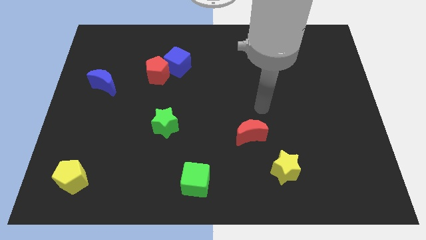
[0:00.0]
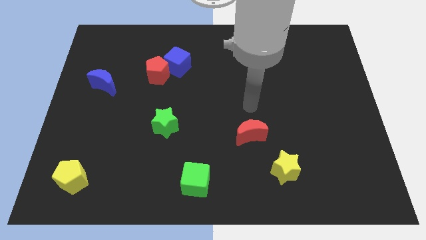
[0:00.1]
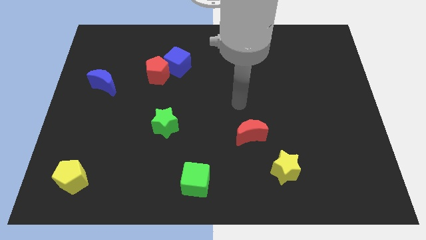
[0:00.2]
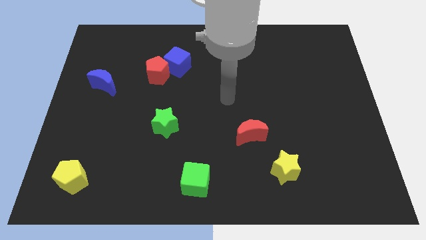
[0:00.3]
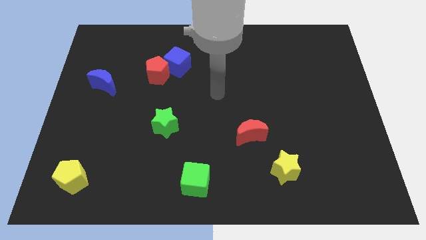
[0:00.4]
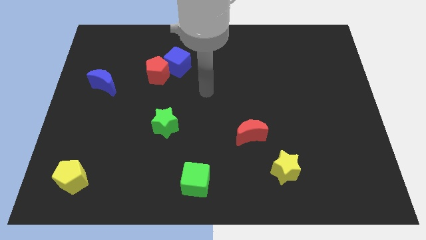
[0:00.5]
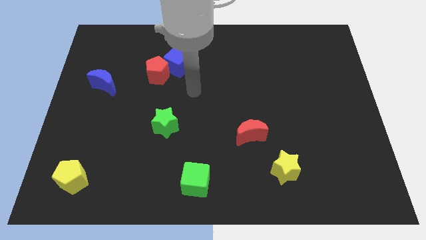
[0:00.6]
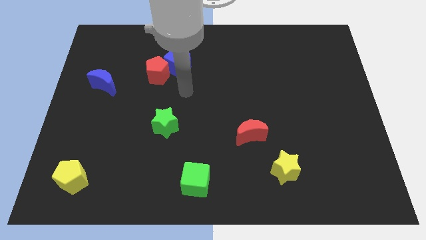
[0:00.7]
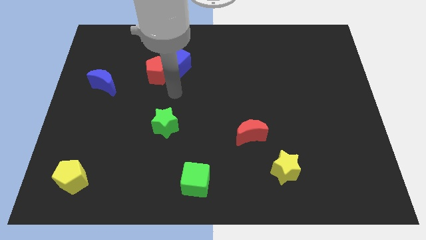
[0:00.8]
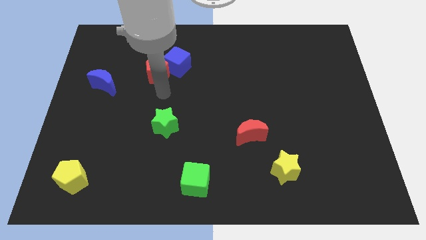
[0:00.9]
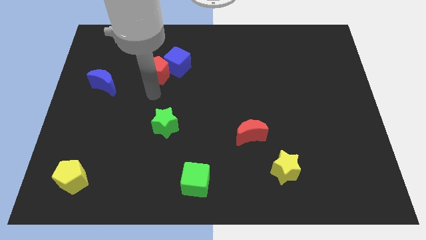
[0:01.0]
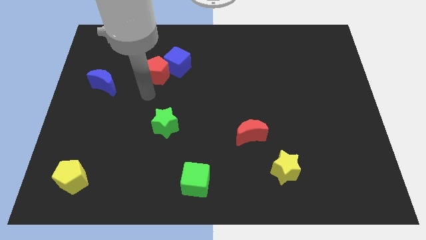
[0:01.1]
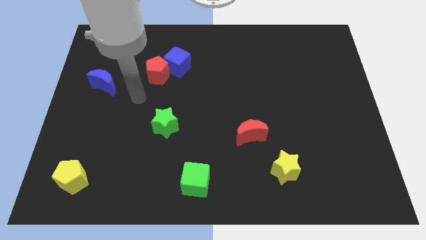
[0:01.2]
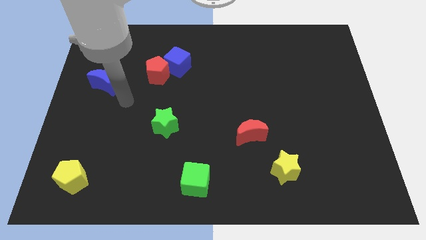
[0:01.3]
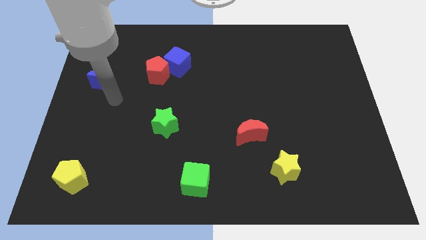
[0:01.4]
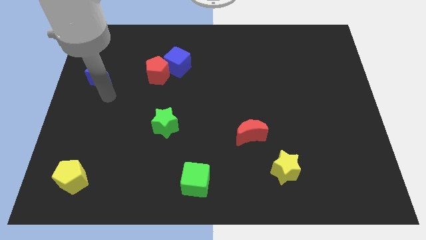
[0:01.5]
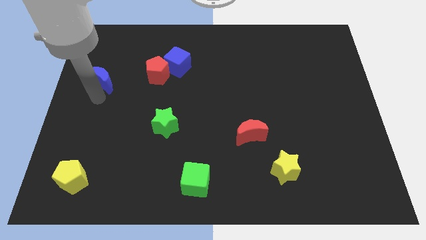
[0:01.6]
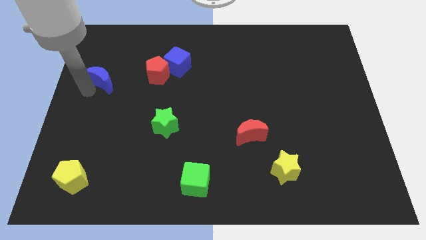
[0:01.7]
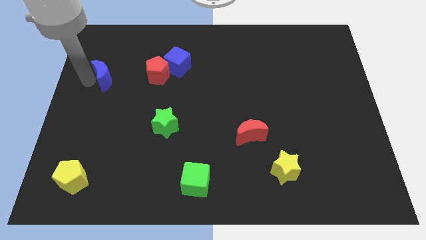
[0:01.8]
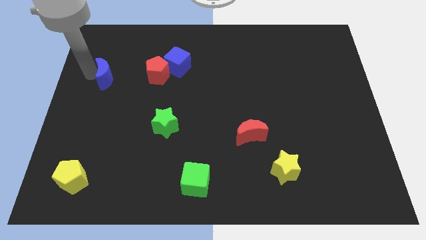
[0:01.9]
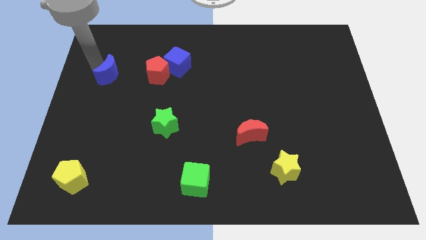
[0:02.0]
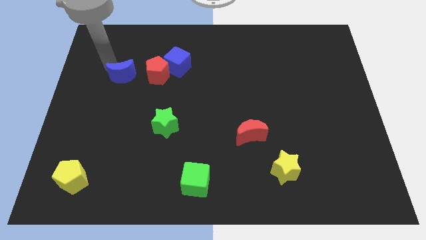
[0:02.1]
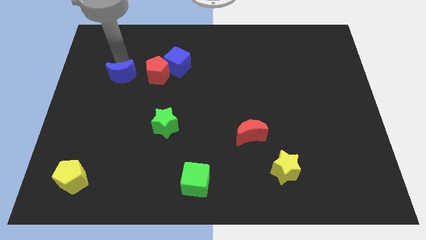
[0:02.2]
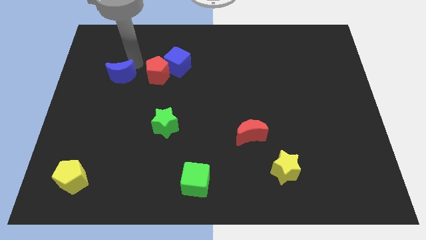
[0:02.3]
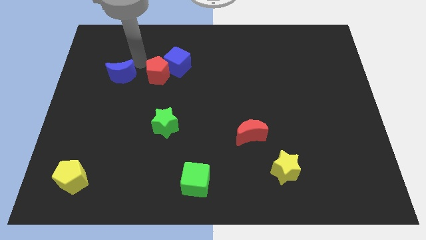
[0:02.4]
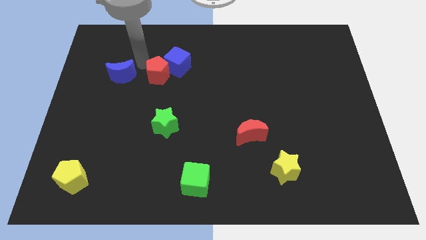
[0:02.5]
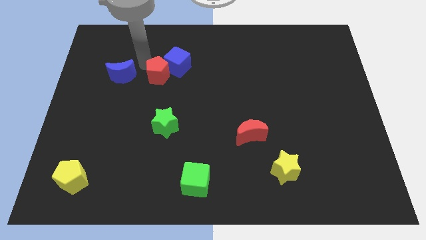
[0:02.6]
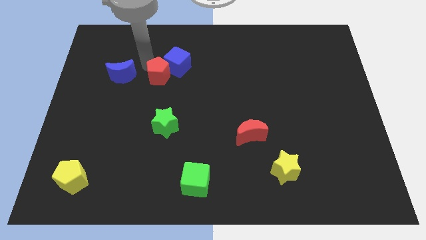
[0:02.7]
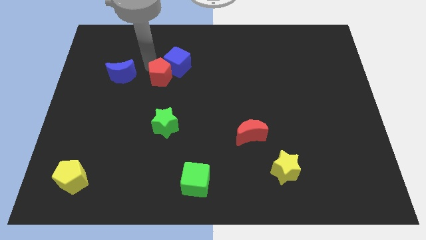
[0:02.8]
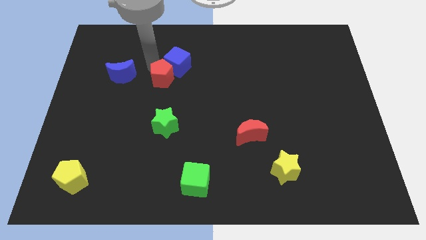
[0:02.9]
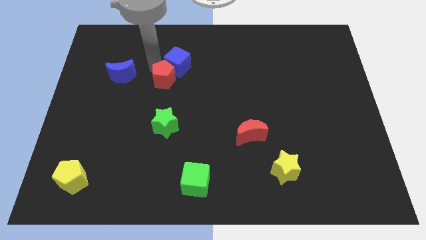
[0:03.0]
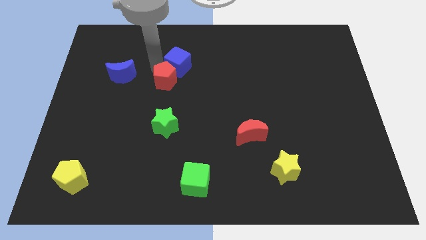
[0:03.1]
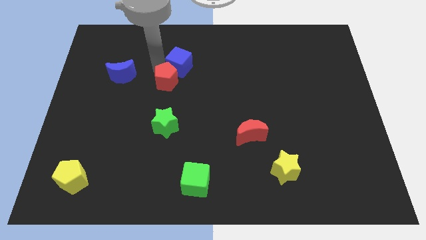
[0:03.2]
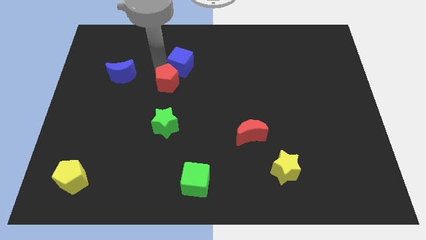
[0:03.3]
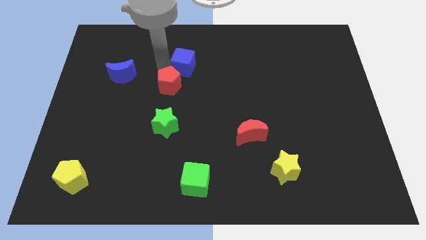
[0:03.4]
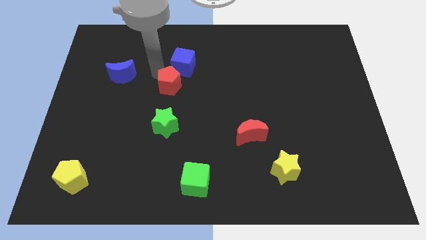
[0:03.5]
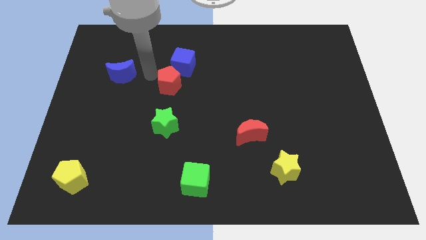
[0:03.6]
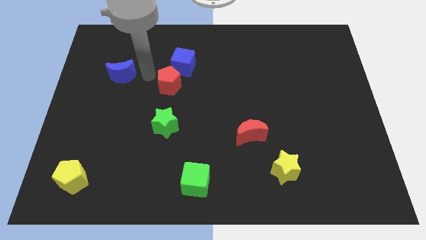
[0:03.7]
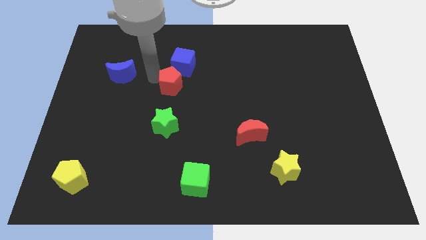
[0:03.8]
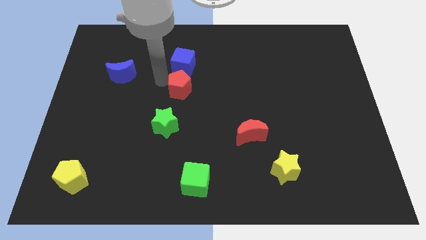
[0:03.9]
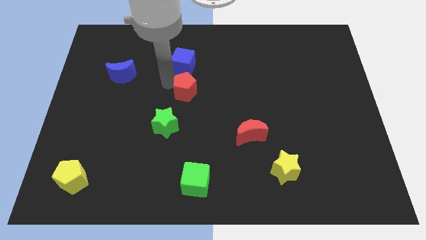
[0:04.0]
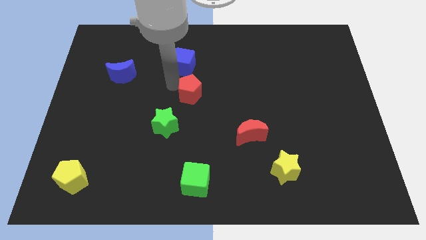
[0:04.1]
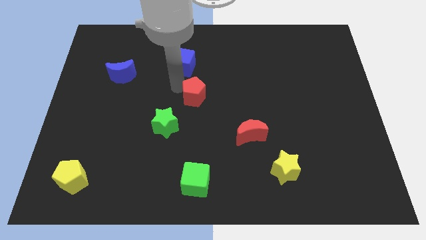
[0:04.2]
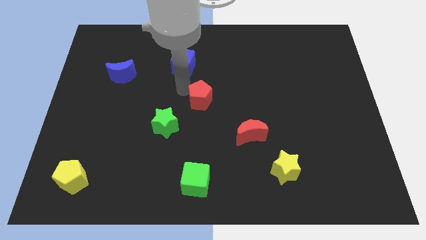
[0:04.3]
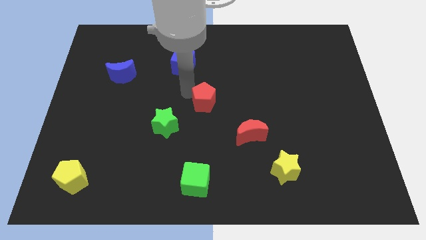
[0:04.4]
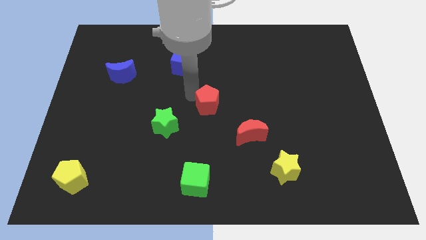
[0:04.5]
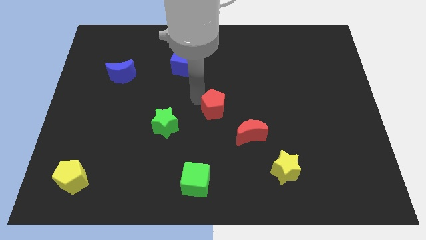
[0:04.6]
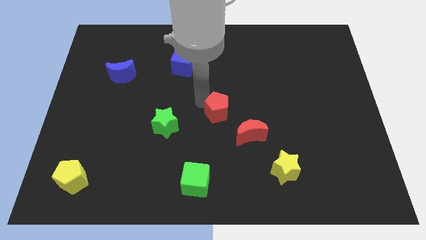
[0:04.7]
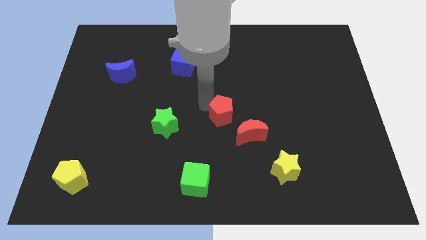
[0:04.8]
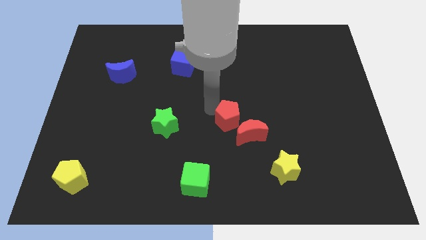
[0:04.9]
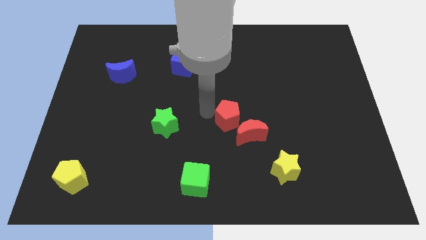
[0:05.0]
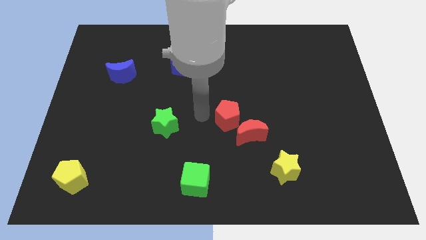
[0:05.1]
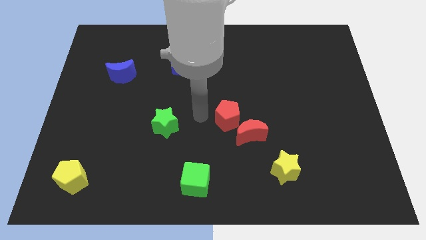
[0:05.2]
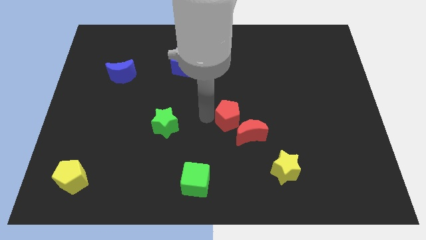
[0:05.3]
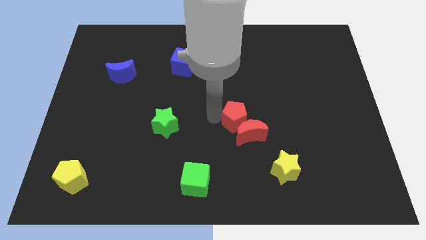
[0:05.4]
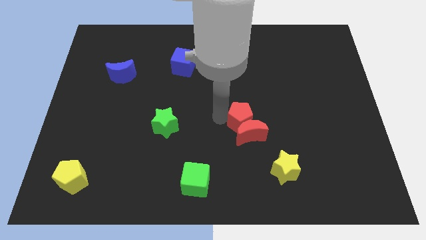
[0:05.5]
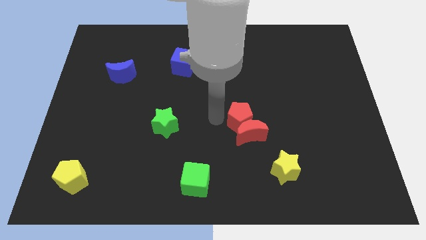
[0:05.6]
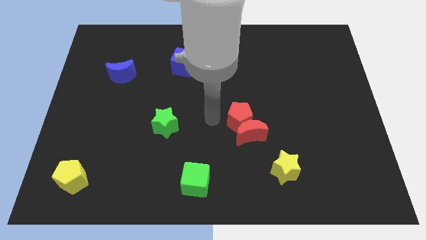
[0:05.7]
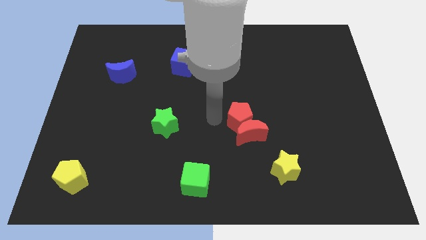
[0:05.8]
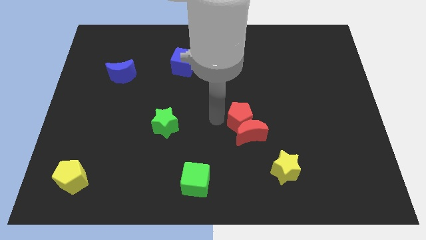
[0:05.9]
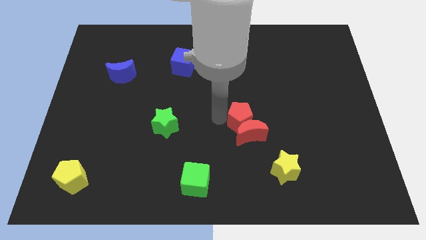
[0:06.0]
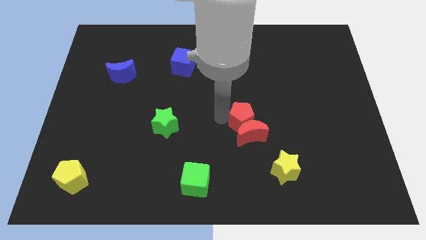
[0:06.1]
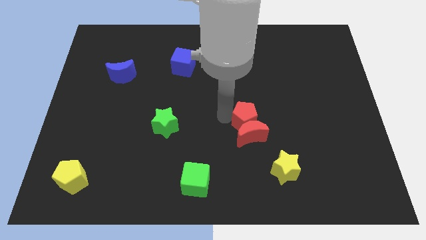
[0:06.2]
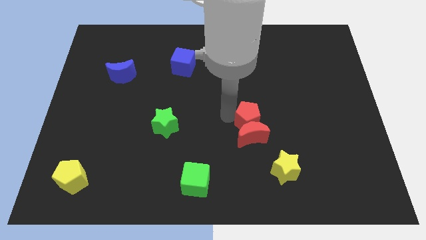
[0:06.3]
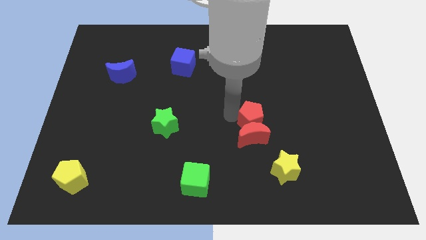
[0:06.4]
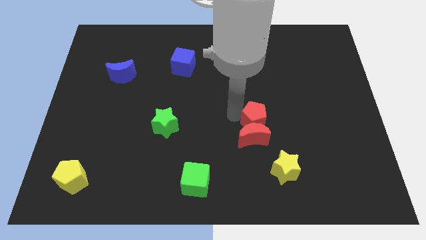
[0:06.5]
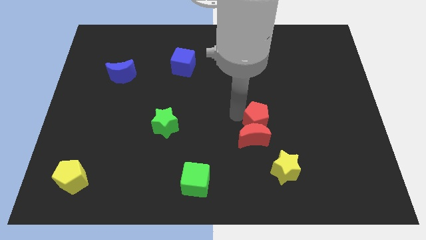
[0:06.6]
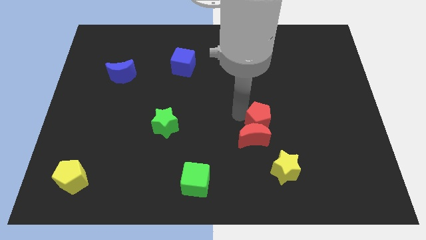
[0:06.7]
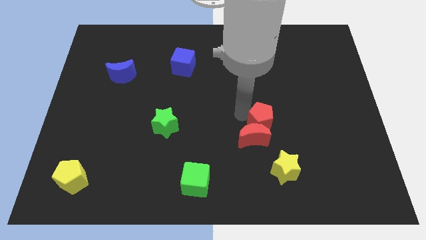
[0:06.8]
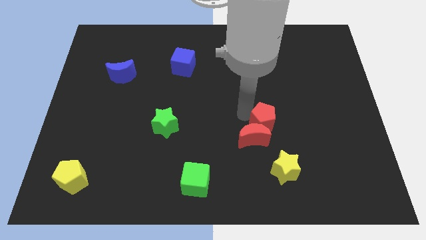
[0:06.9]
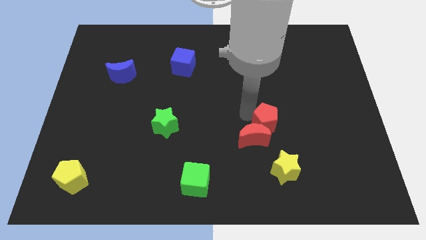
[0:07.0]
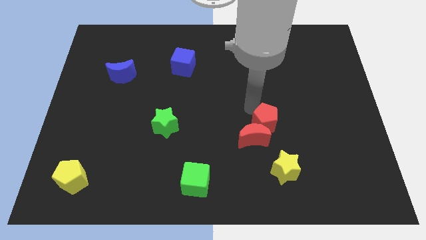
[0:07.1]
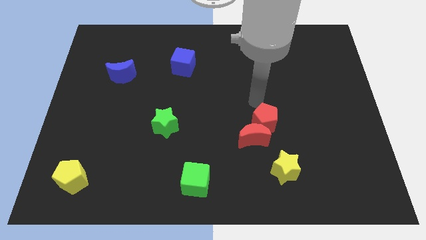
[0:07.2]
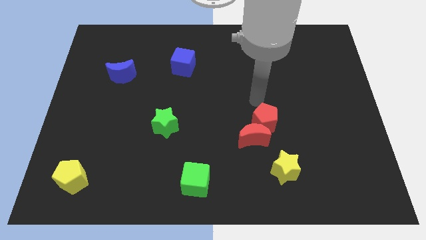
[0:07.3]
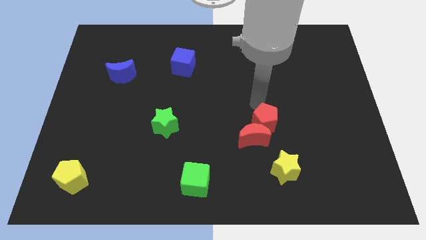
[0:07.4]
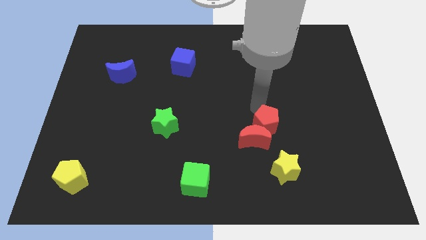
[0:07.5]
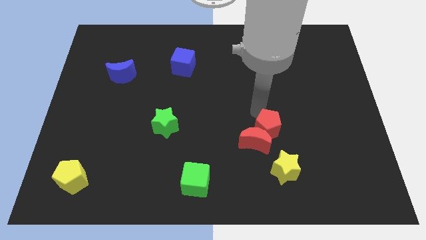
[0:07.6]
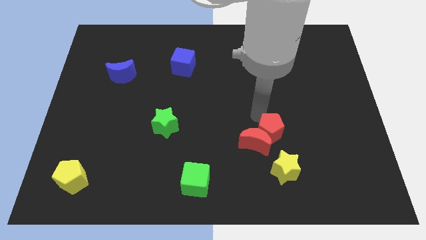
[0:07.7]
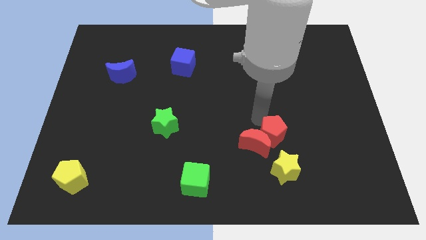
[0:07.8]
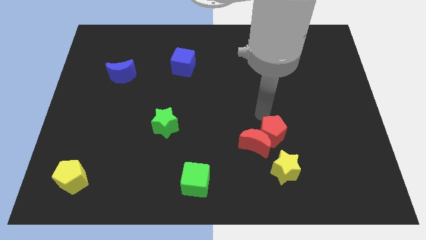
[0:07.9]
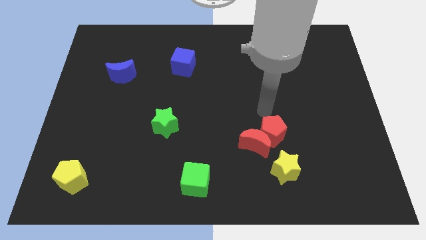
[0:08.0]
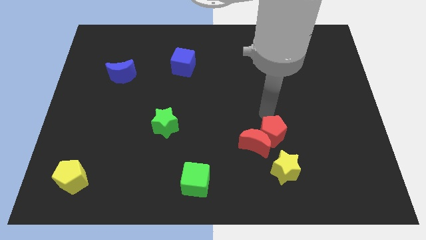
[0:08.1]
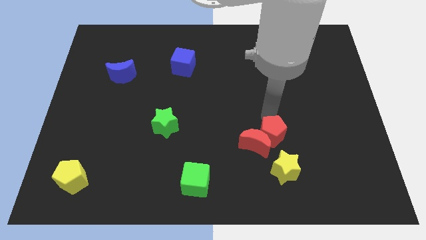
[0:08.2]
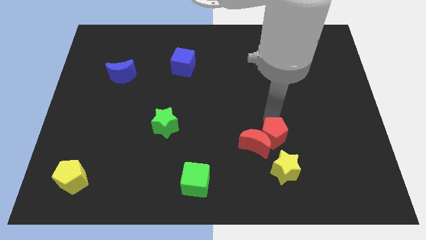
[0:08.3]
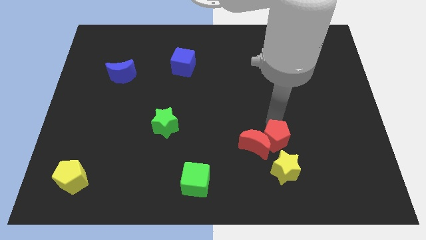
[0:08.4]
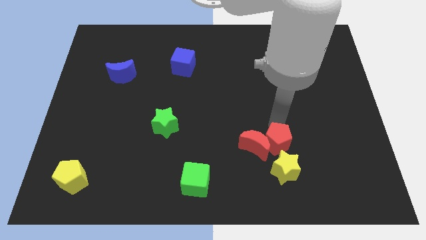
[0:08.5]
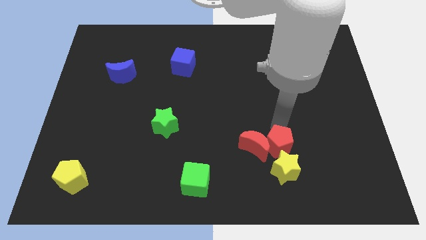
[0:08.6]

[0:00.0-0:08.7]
move the red pentagon close to the yellow star
